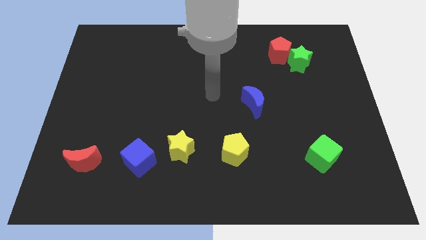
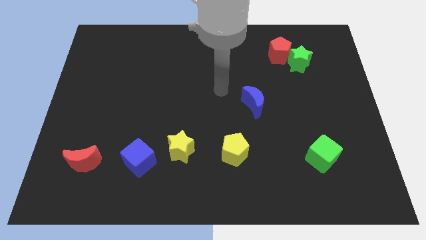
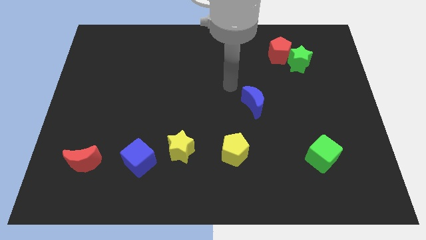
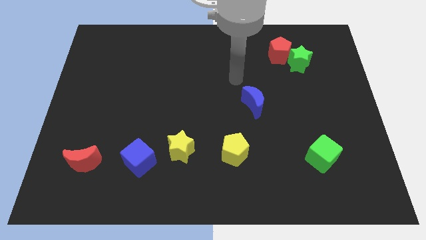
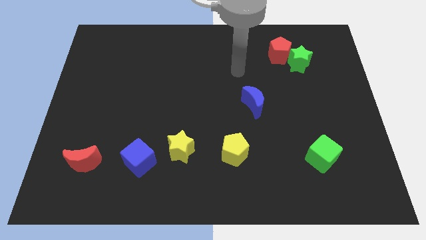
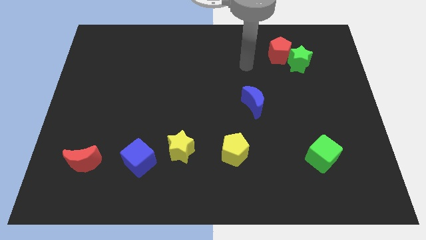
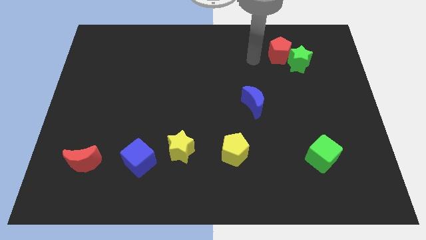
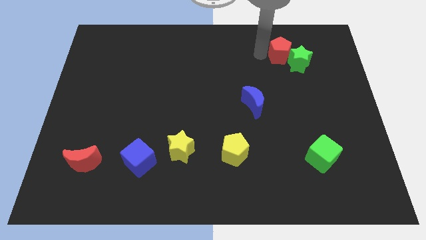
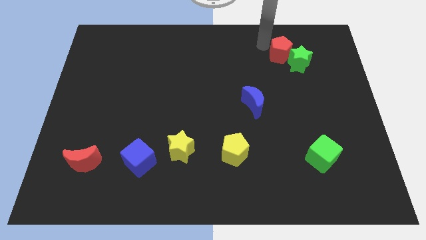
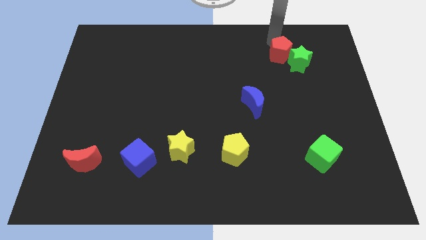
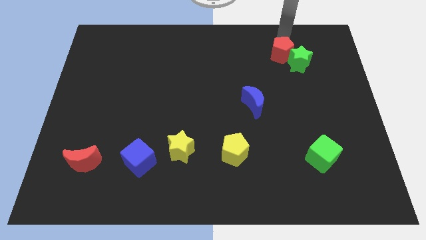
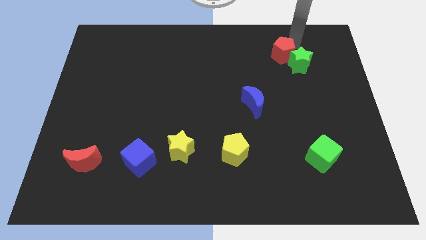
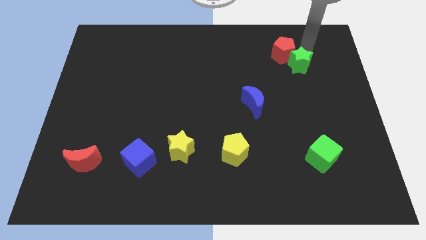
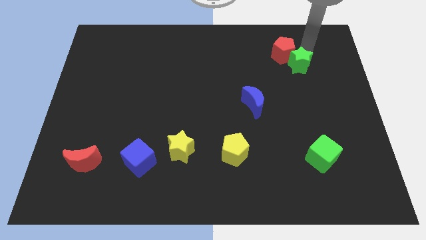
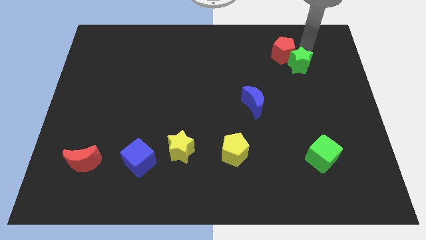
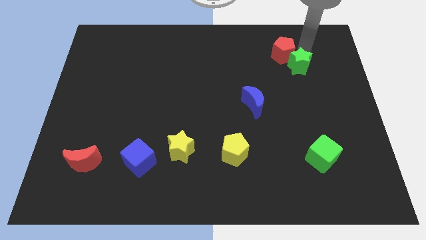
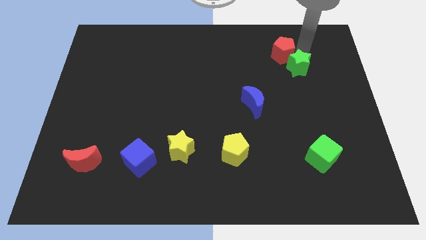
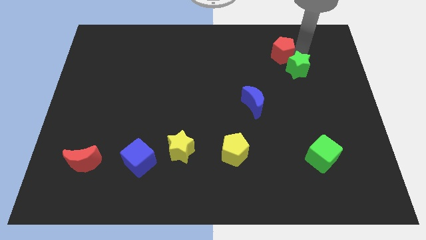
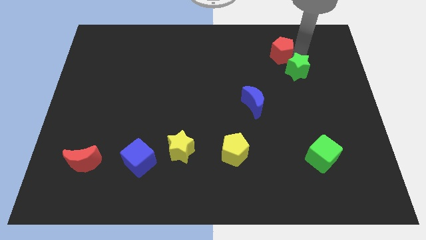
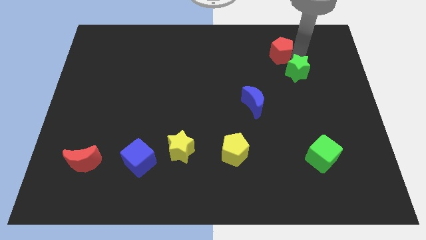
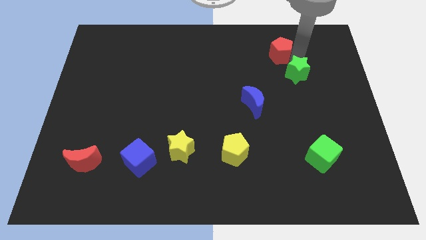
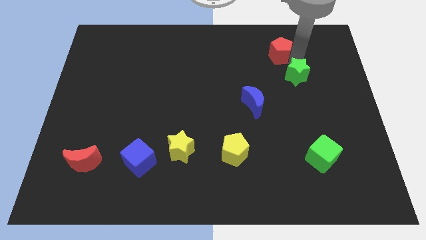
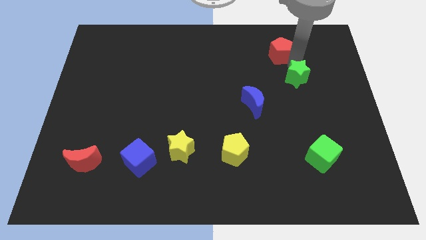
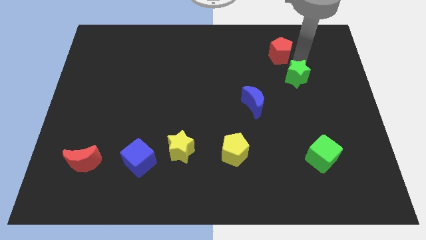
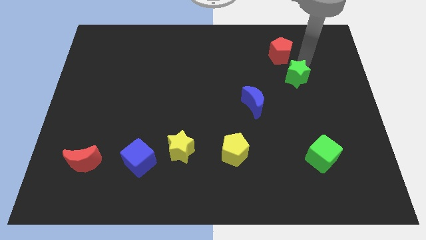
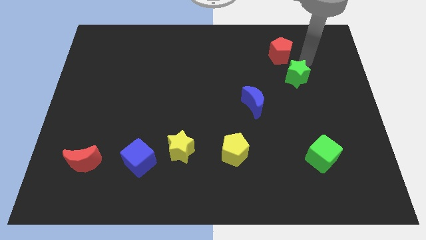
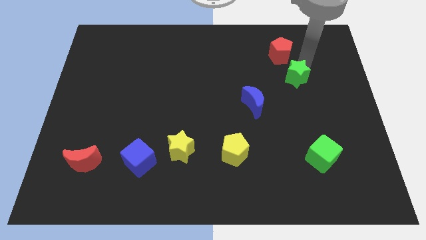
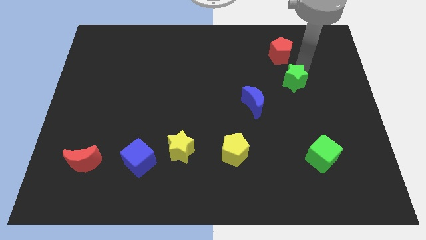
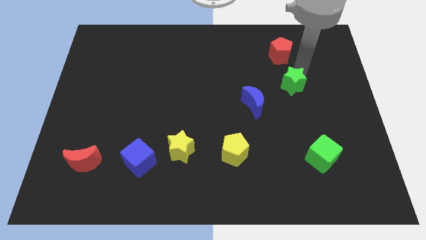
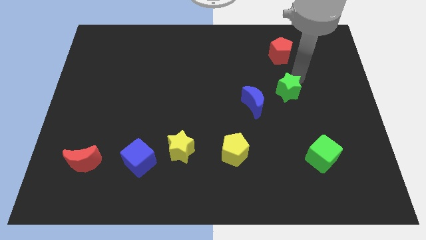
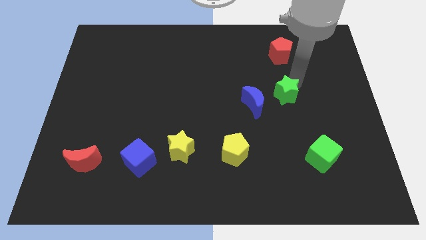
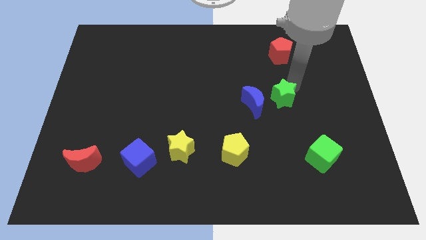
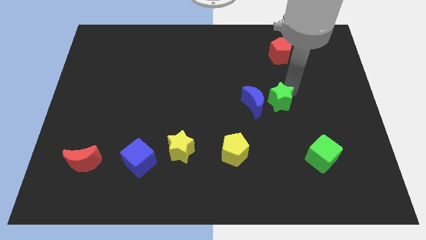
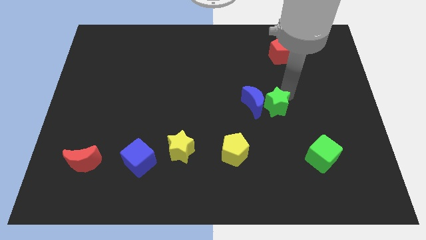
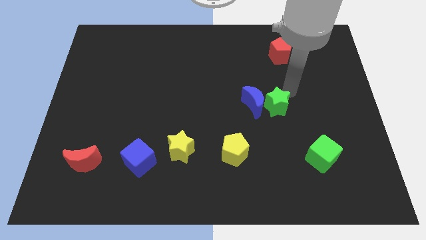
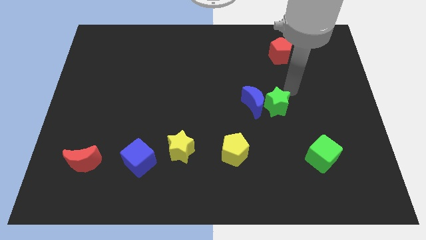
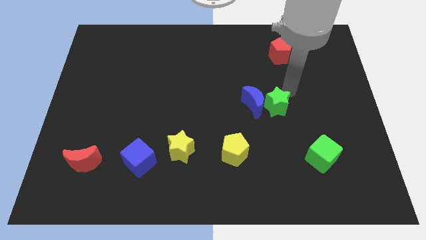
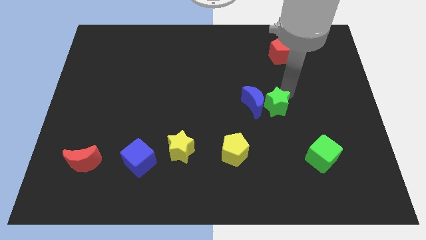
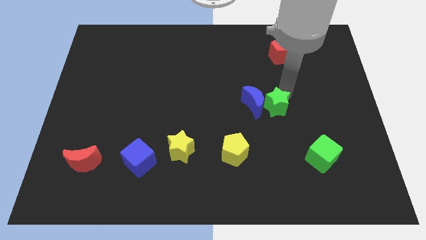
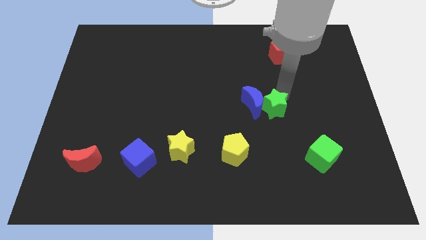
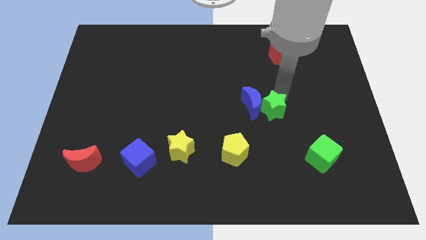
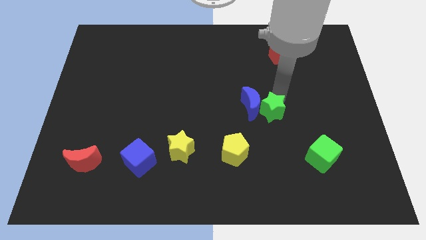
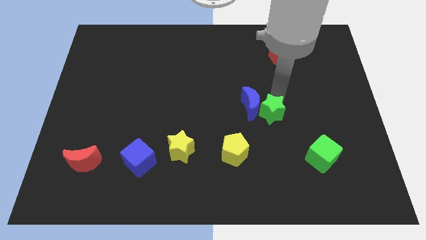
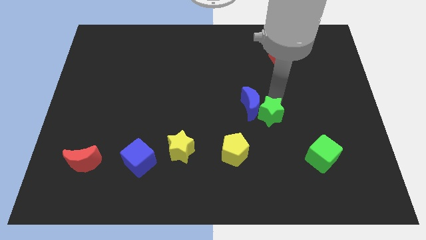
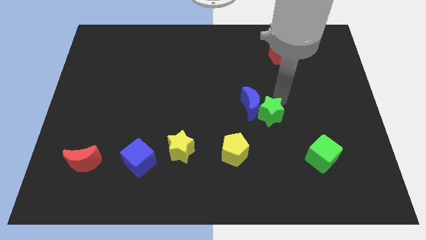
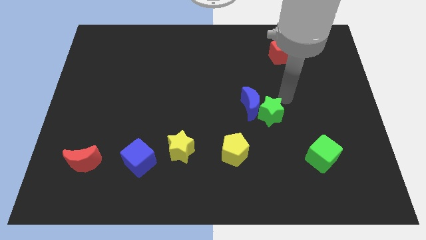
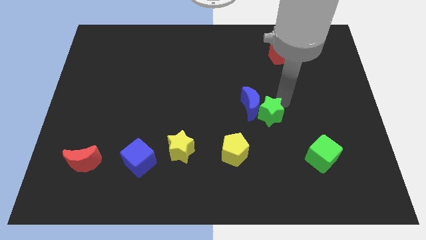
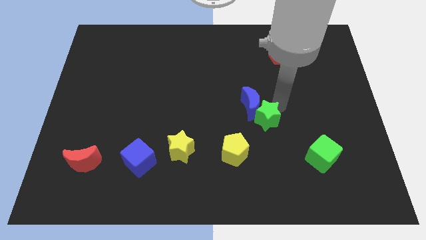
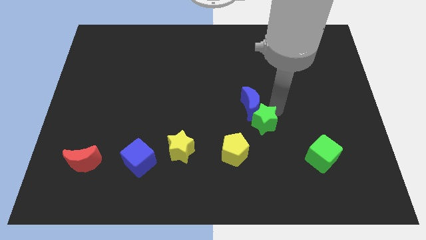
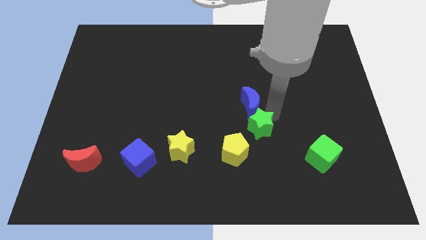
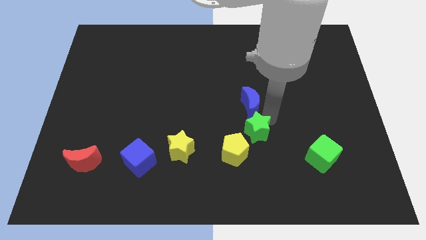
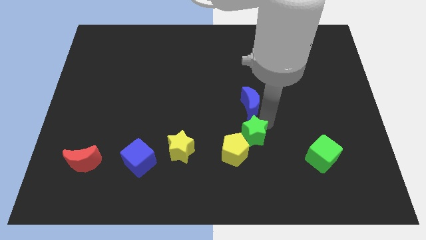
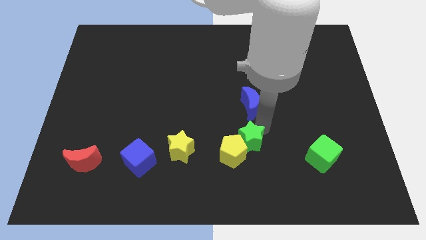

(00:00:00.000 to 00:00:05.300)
slide the green star close to the yellow pentagon

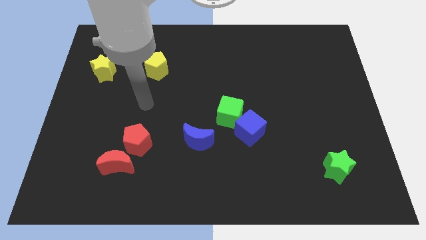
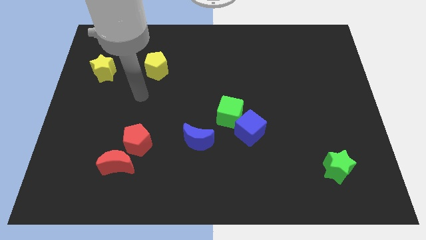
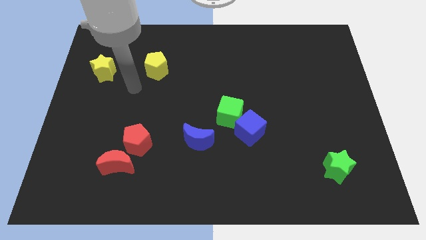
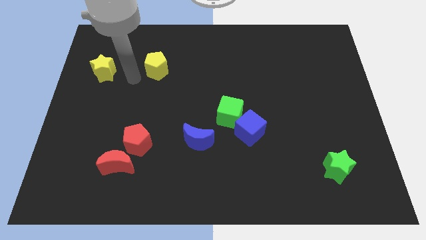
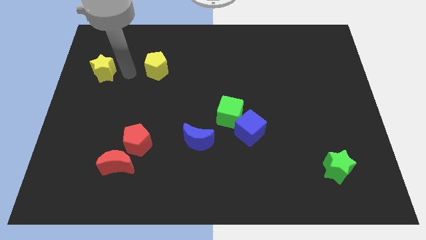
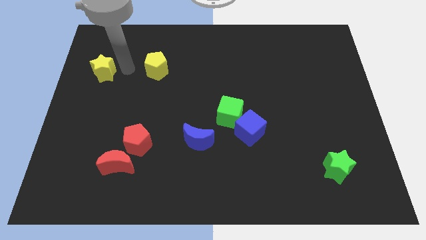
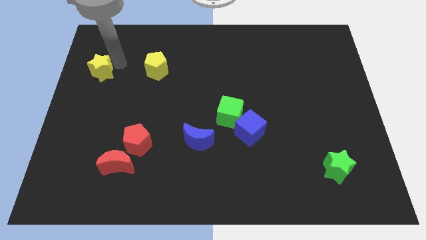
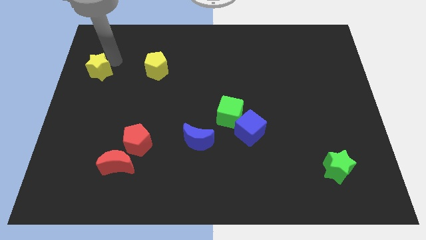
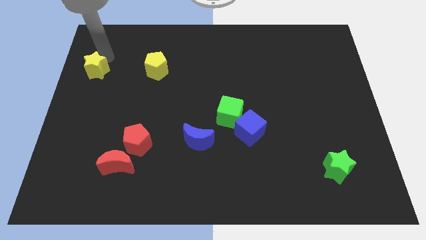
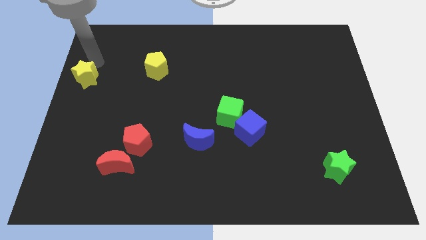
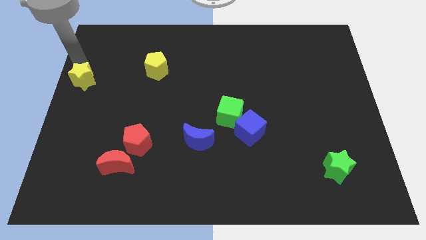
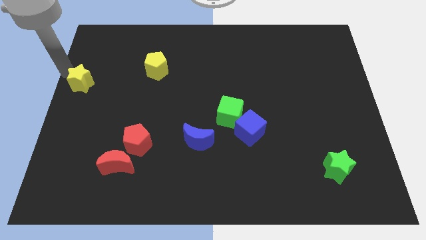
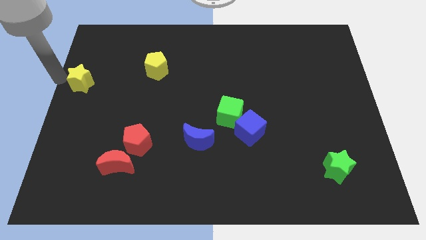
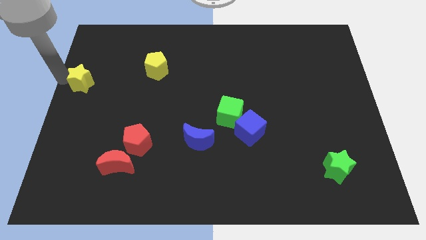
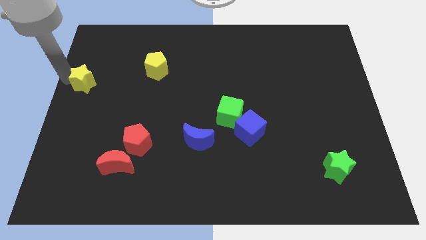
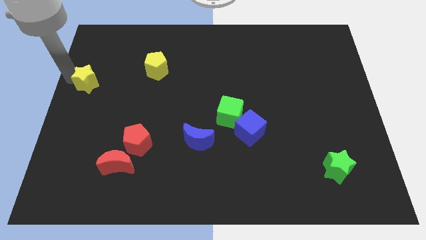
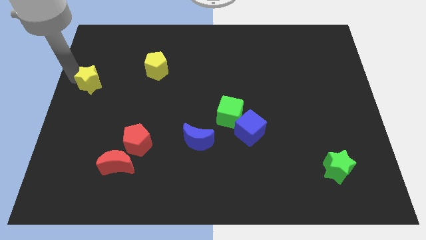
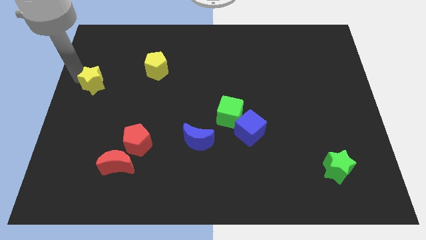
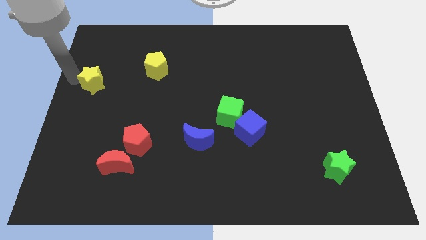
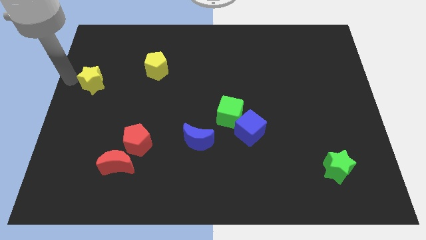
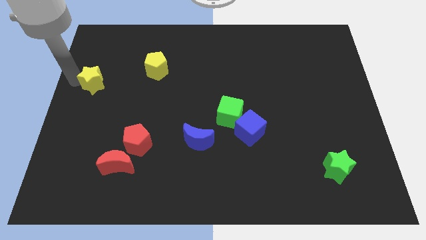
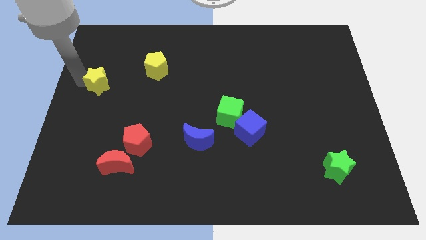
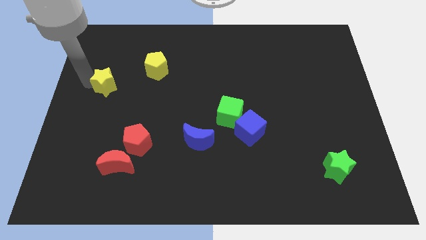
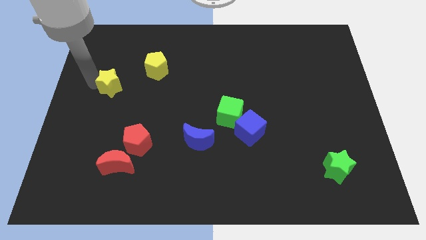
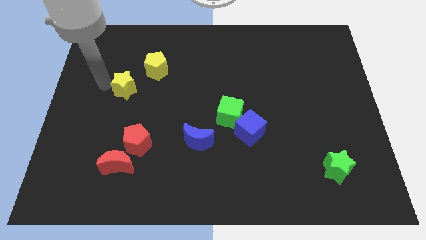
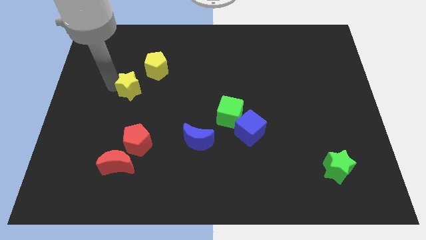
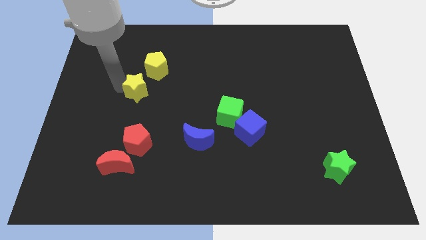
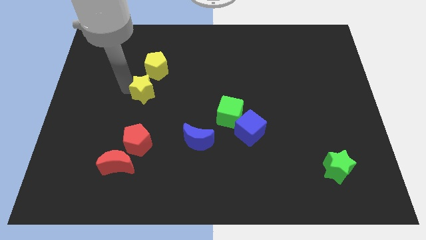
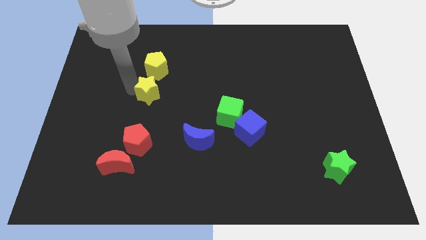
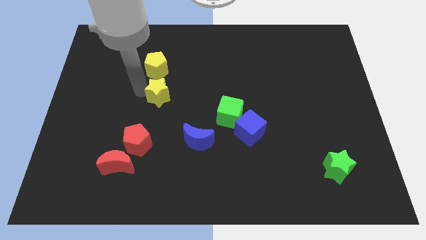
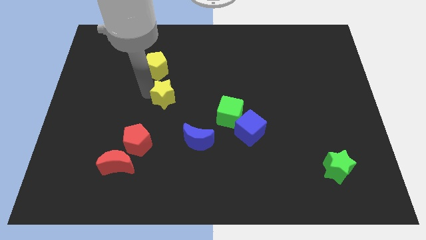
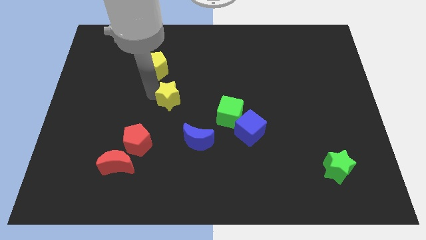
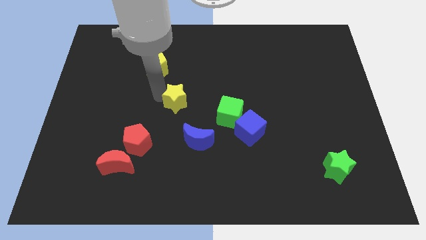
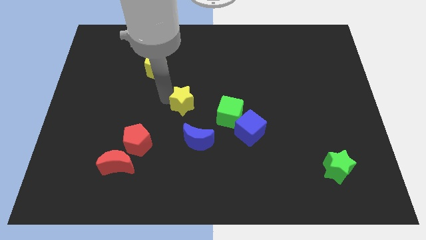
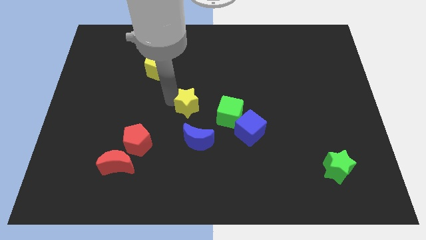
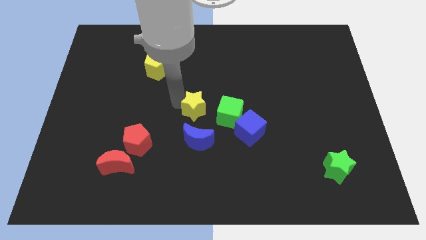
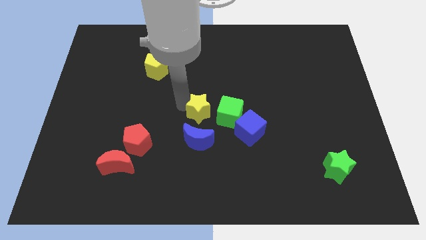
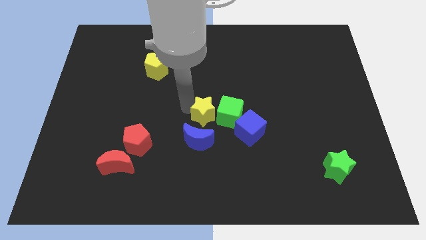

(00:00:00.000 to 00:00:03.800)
move the yellow star towards the green cube
